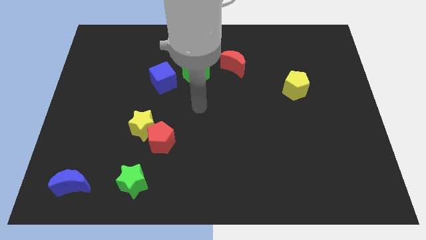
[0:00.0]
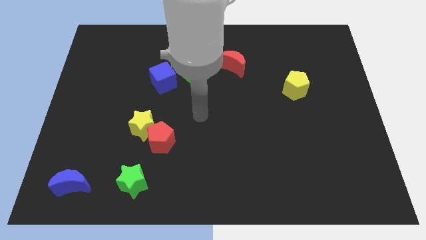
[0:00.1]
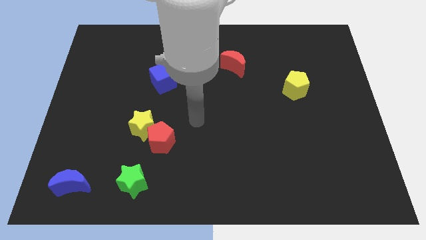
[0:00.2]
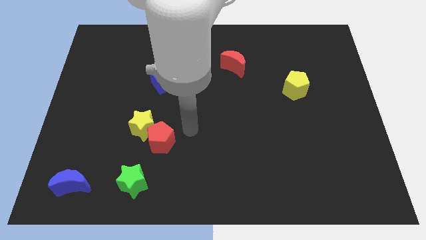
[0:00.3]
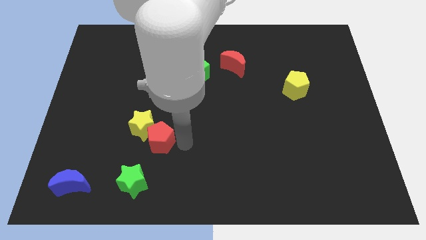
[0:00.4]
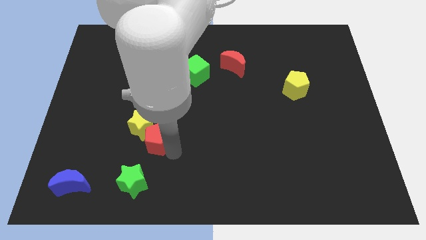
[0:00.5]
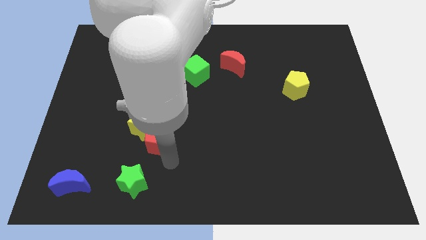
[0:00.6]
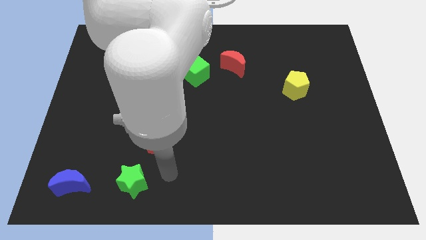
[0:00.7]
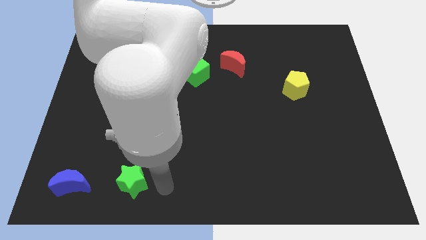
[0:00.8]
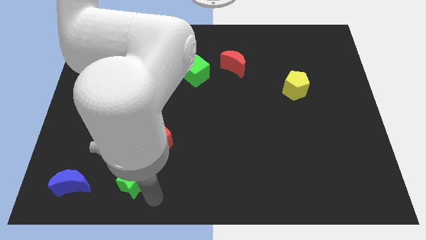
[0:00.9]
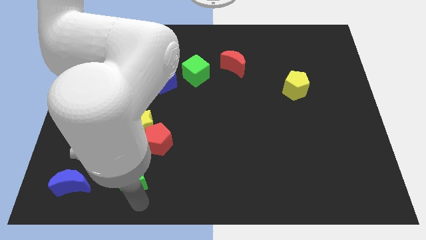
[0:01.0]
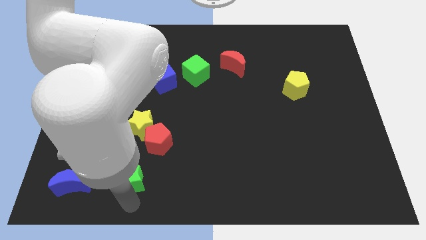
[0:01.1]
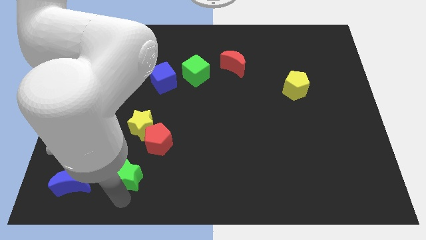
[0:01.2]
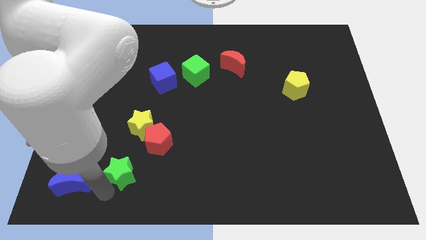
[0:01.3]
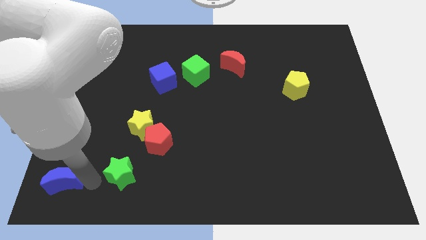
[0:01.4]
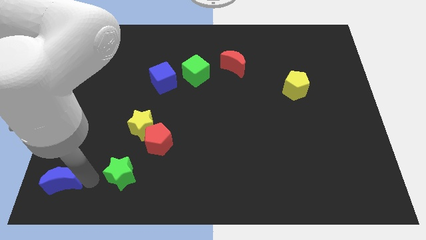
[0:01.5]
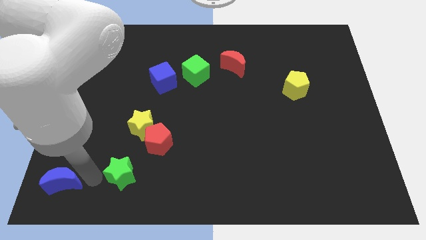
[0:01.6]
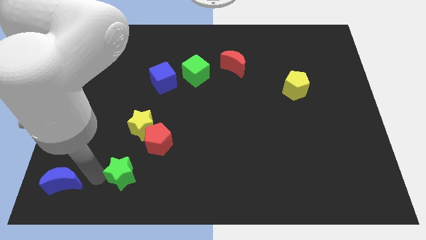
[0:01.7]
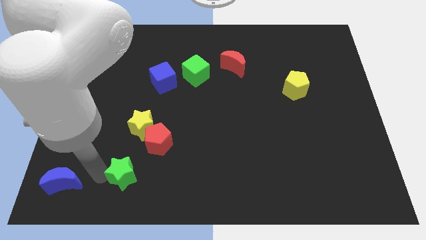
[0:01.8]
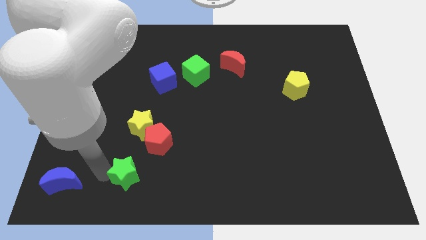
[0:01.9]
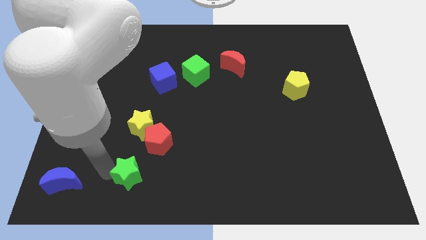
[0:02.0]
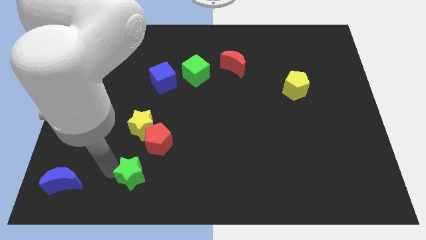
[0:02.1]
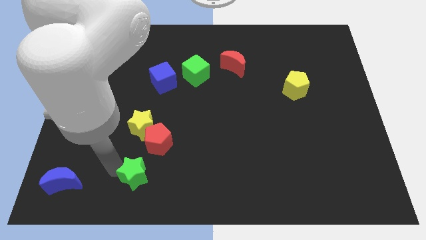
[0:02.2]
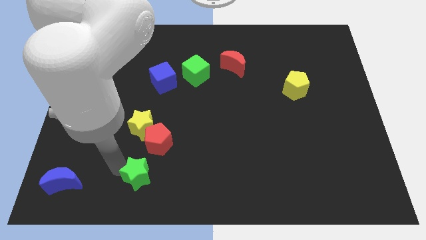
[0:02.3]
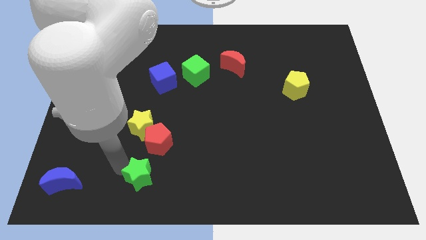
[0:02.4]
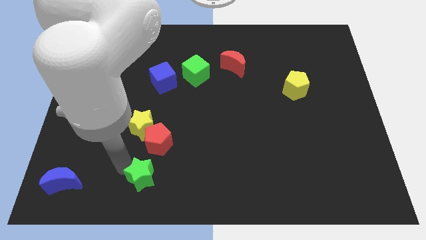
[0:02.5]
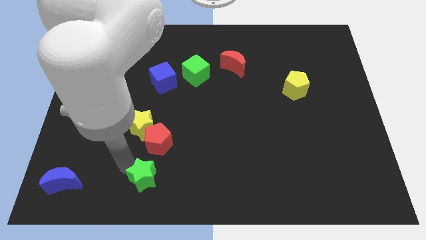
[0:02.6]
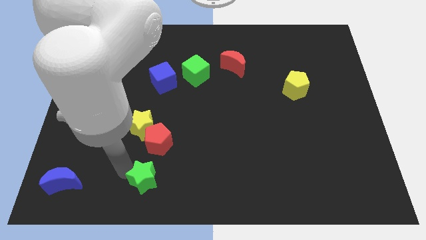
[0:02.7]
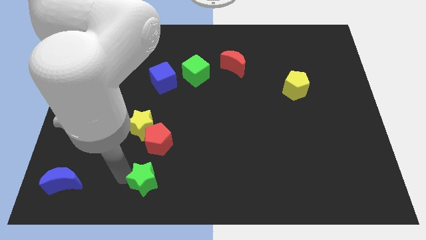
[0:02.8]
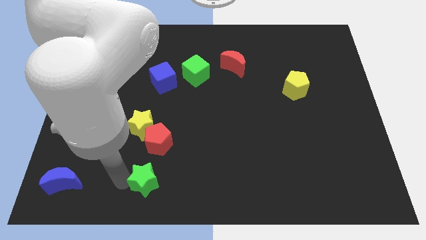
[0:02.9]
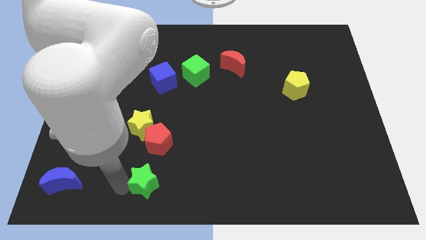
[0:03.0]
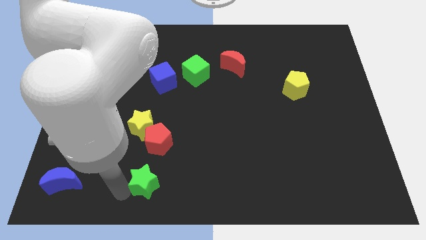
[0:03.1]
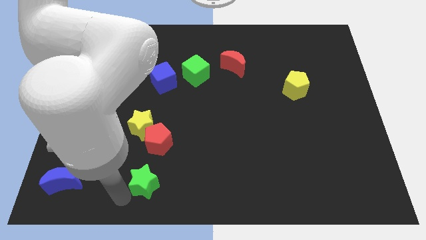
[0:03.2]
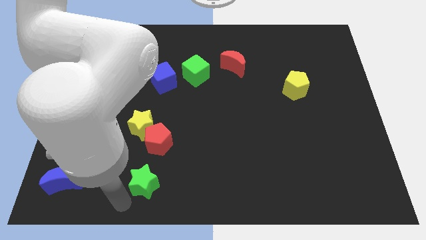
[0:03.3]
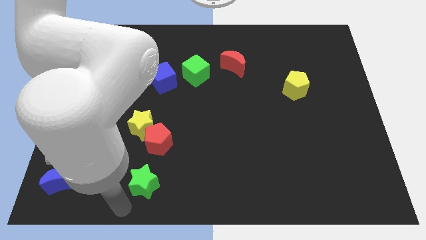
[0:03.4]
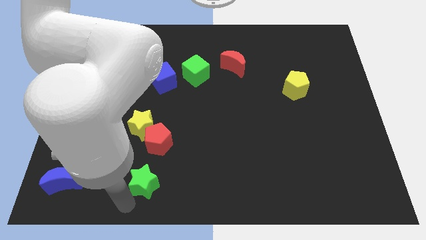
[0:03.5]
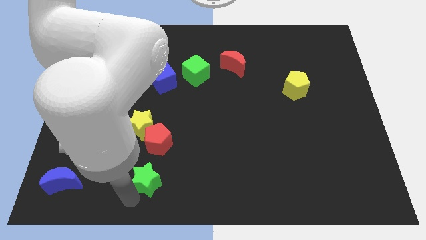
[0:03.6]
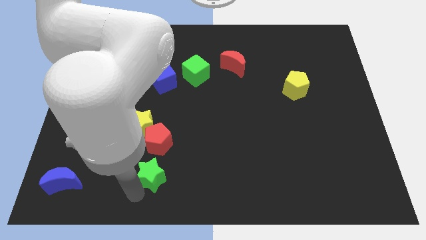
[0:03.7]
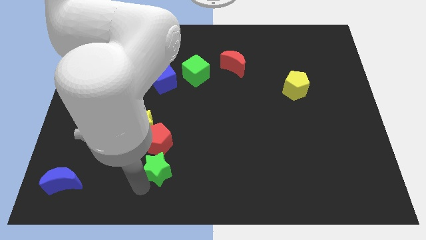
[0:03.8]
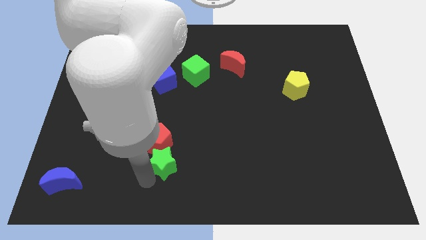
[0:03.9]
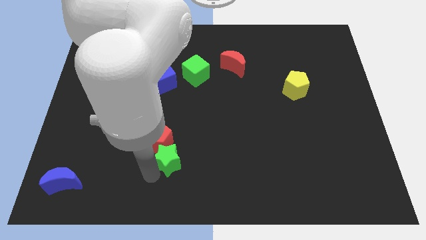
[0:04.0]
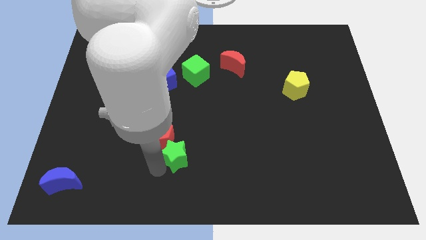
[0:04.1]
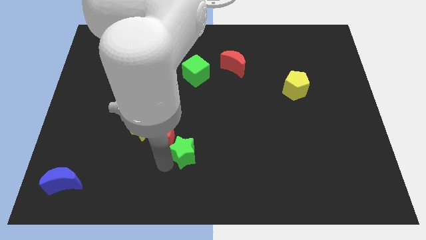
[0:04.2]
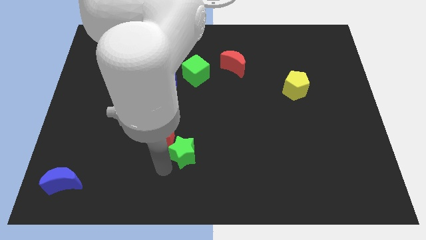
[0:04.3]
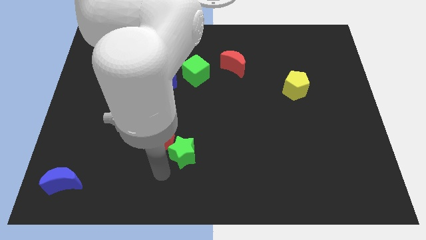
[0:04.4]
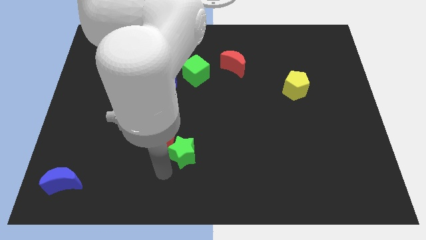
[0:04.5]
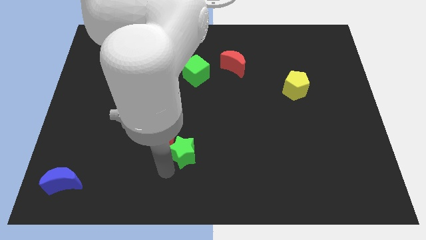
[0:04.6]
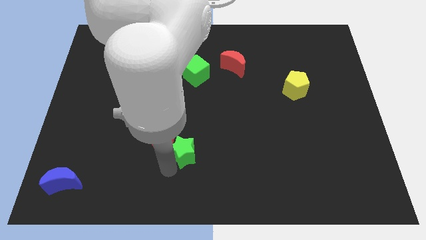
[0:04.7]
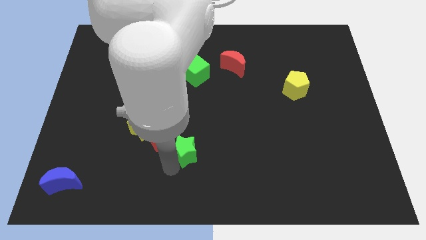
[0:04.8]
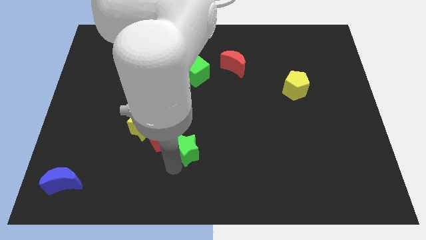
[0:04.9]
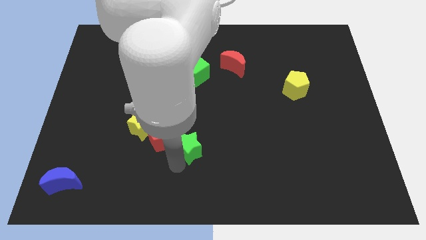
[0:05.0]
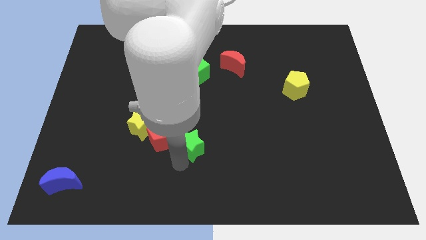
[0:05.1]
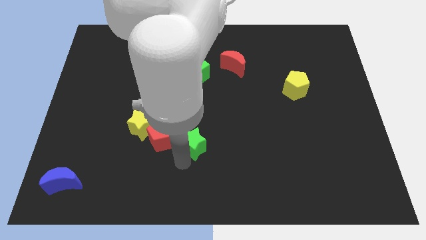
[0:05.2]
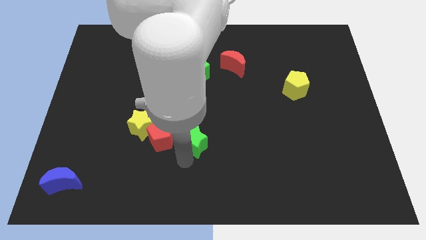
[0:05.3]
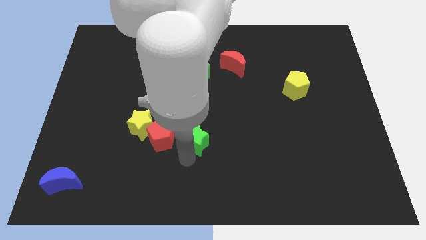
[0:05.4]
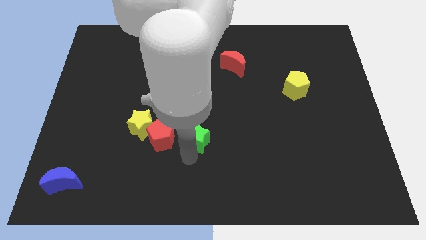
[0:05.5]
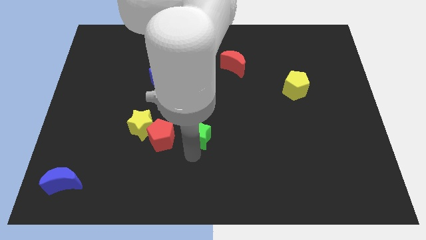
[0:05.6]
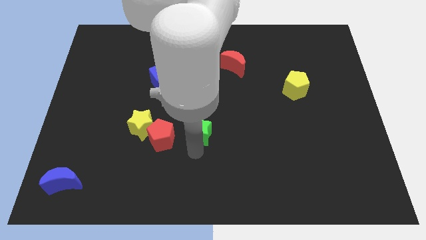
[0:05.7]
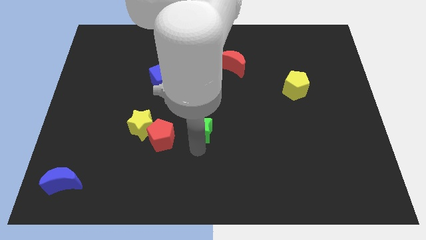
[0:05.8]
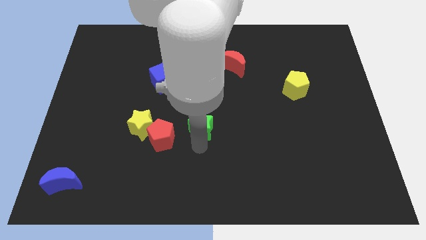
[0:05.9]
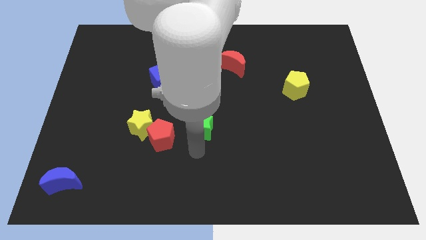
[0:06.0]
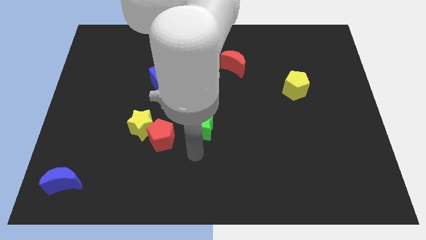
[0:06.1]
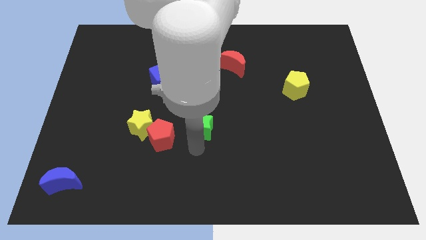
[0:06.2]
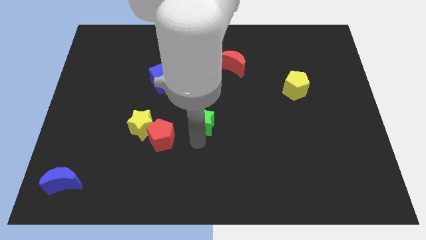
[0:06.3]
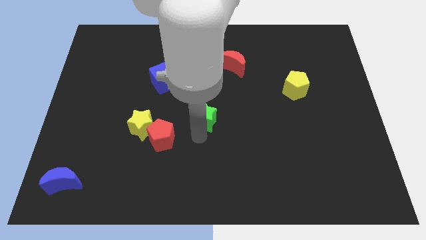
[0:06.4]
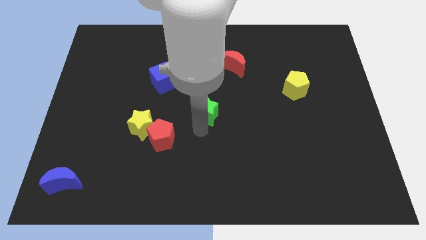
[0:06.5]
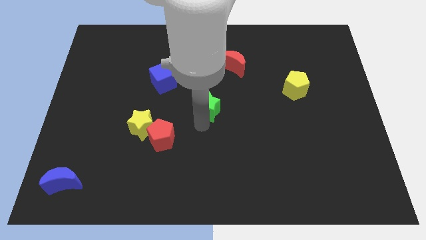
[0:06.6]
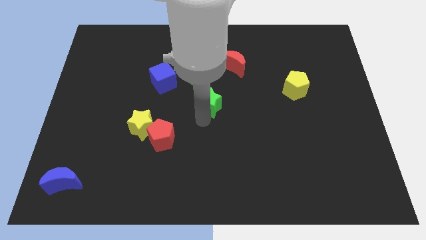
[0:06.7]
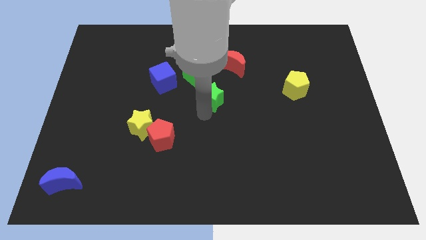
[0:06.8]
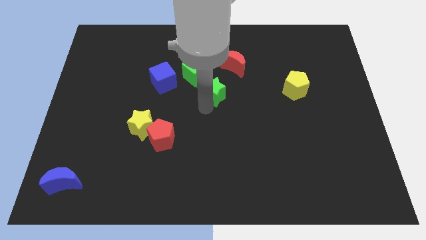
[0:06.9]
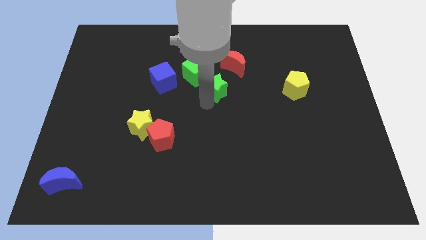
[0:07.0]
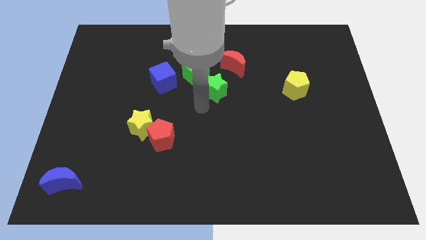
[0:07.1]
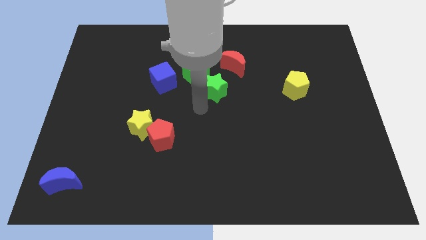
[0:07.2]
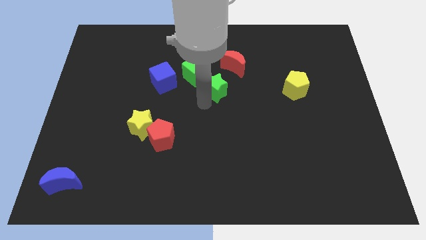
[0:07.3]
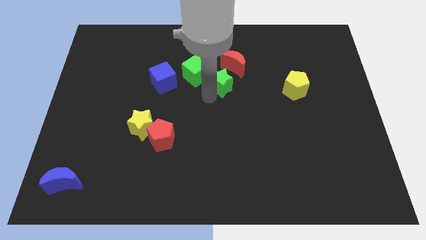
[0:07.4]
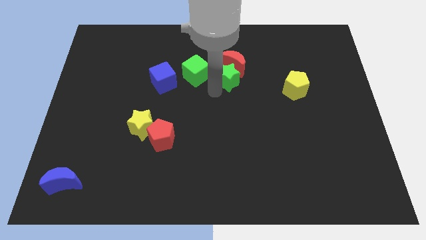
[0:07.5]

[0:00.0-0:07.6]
push the green star next to the red moon
